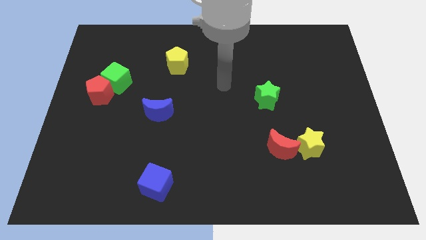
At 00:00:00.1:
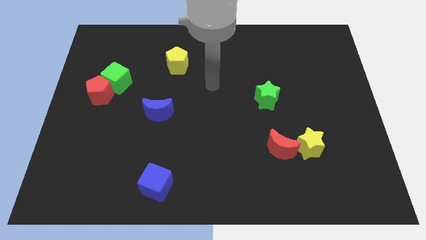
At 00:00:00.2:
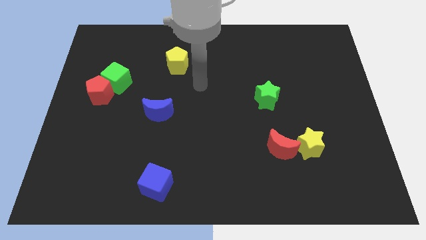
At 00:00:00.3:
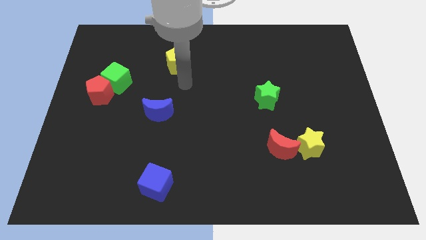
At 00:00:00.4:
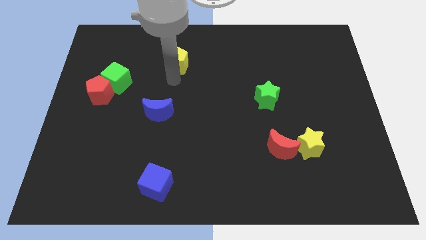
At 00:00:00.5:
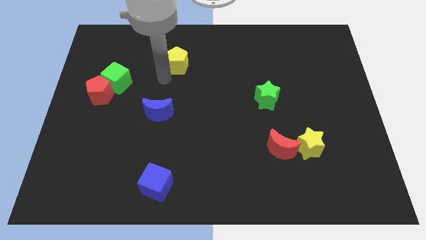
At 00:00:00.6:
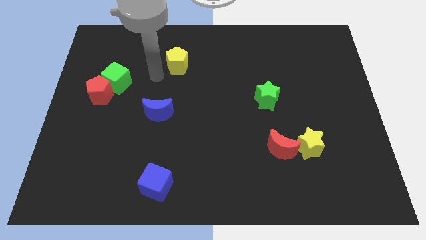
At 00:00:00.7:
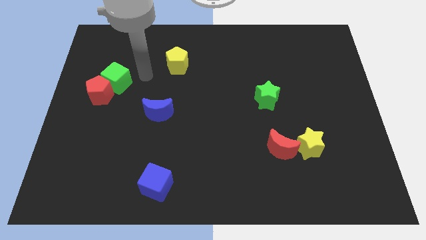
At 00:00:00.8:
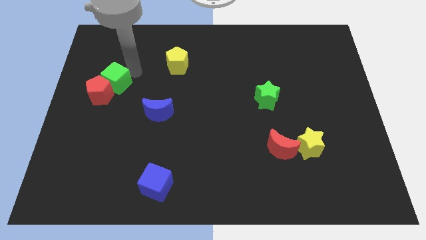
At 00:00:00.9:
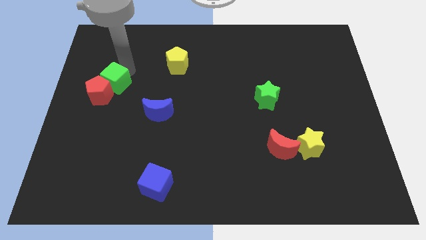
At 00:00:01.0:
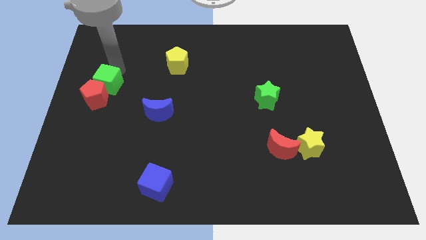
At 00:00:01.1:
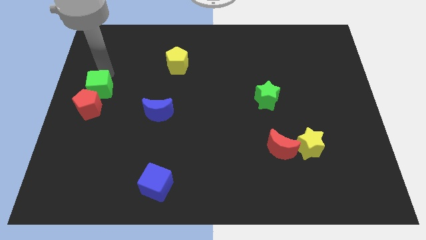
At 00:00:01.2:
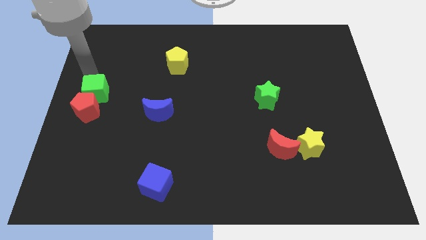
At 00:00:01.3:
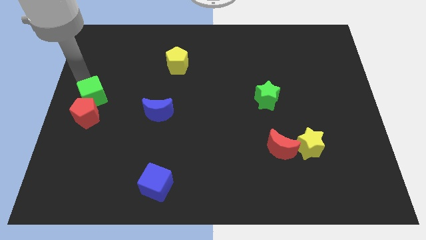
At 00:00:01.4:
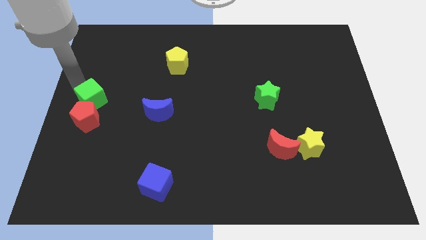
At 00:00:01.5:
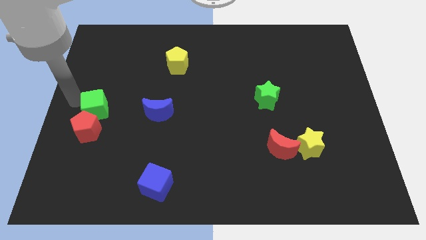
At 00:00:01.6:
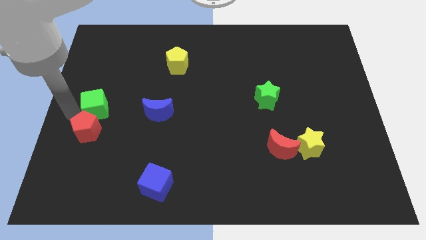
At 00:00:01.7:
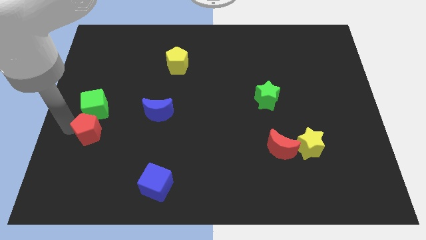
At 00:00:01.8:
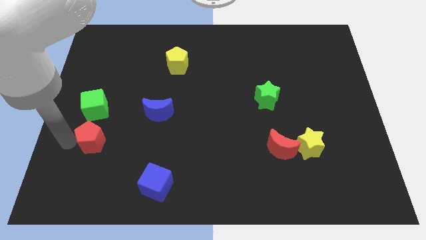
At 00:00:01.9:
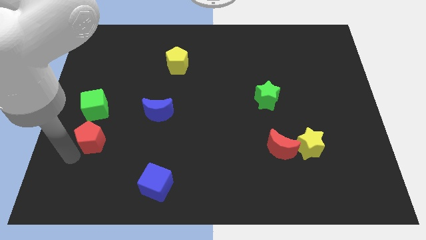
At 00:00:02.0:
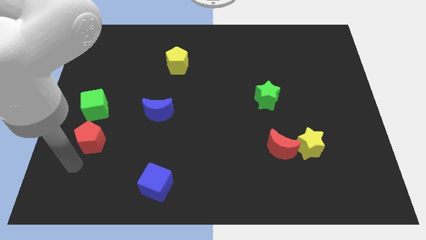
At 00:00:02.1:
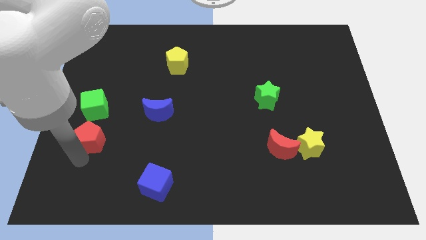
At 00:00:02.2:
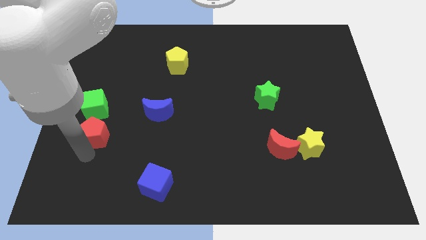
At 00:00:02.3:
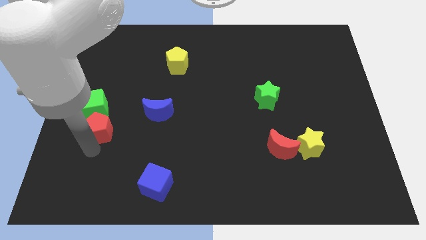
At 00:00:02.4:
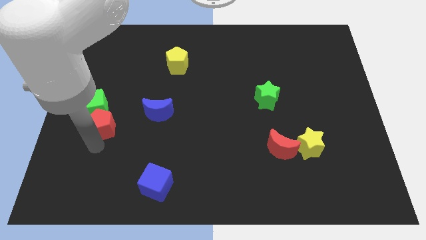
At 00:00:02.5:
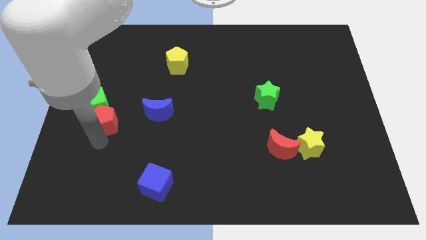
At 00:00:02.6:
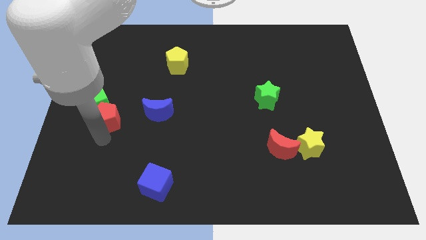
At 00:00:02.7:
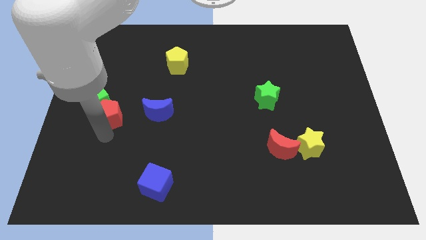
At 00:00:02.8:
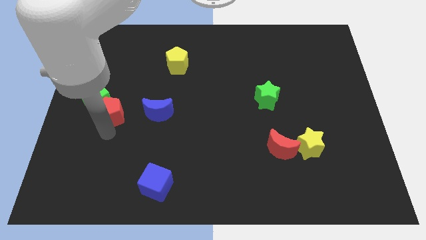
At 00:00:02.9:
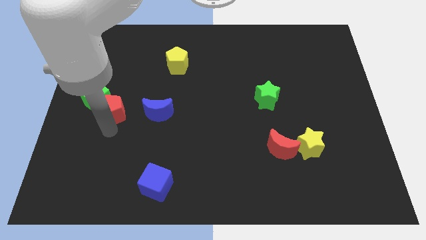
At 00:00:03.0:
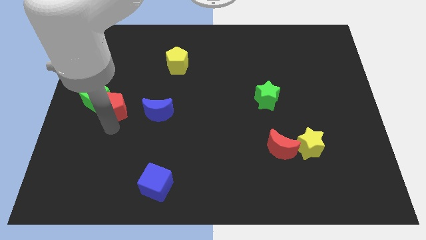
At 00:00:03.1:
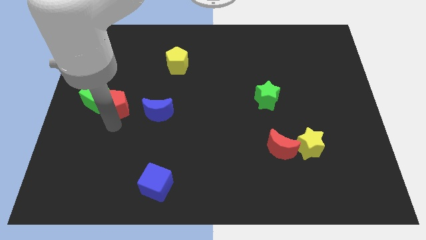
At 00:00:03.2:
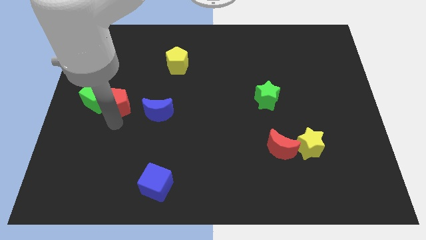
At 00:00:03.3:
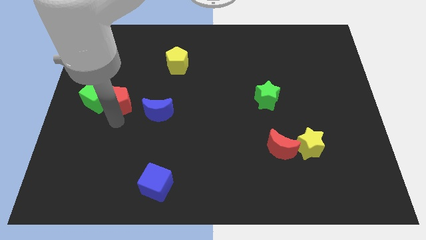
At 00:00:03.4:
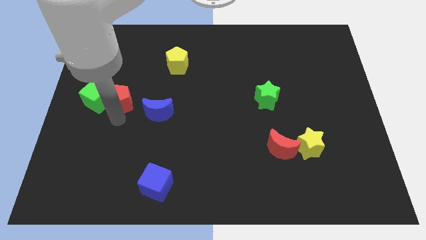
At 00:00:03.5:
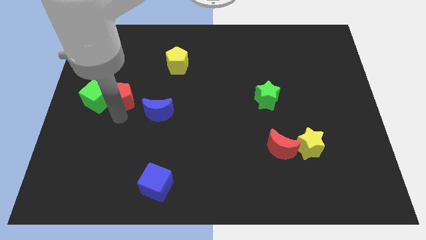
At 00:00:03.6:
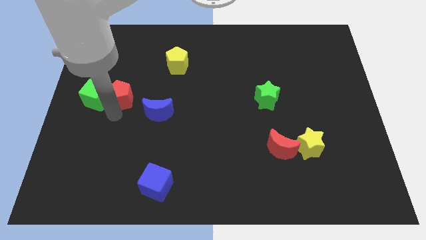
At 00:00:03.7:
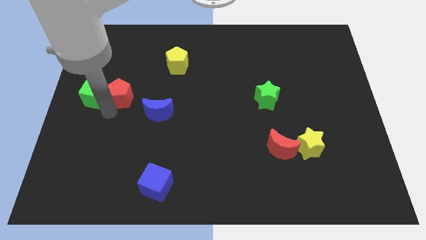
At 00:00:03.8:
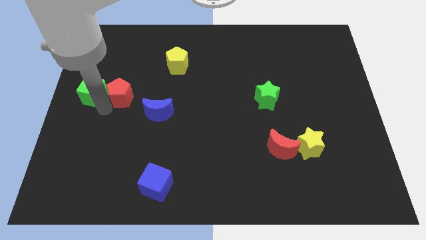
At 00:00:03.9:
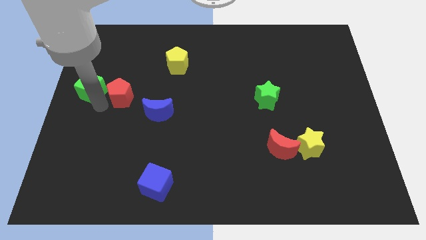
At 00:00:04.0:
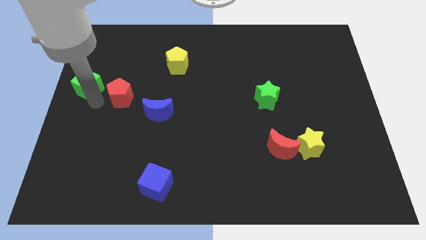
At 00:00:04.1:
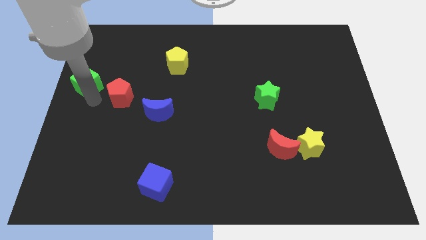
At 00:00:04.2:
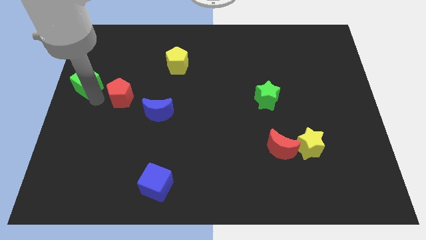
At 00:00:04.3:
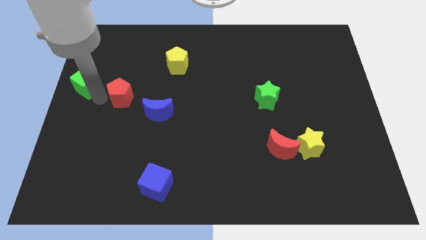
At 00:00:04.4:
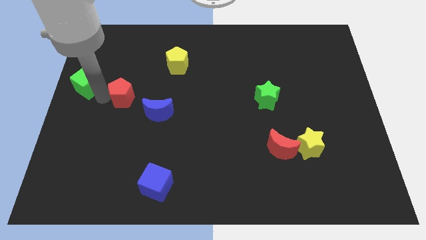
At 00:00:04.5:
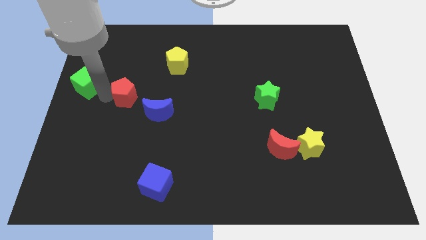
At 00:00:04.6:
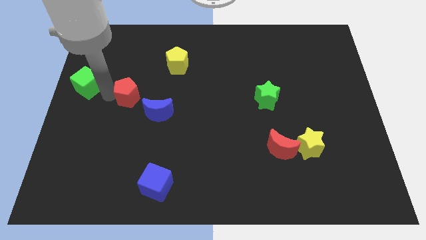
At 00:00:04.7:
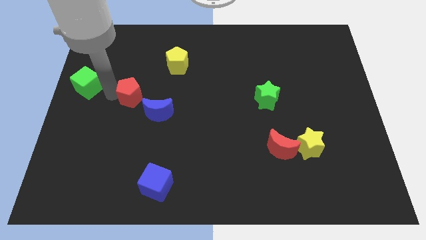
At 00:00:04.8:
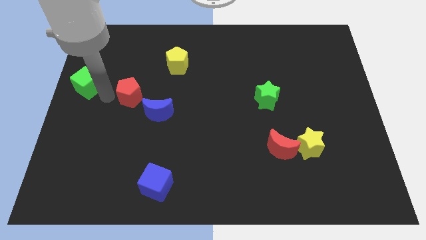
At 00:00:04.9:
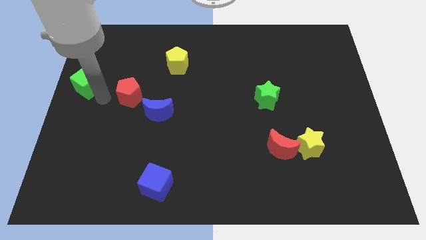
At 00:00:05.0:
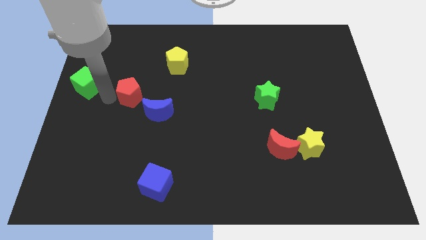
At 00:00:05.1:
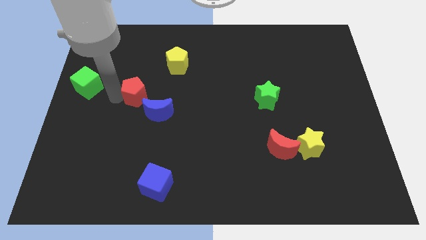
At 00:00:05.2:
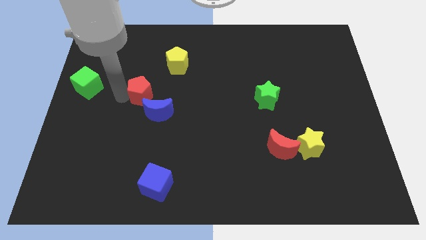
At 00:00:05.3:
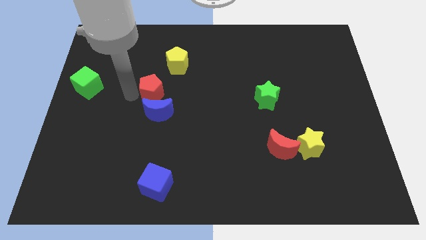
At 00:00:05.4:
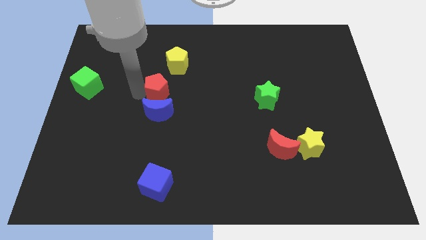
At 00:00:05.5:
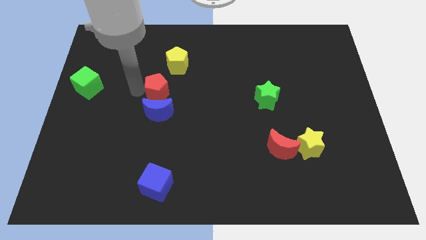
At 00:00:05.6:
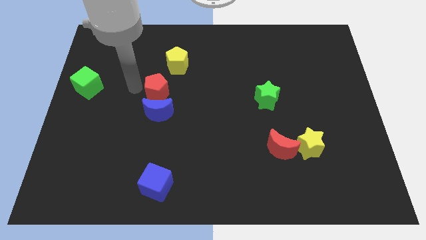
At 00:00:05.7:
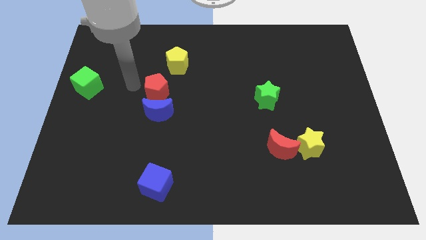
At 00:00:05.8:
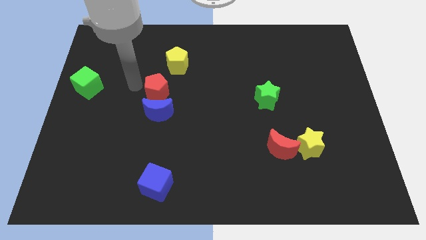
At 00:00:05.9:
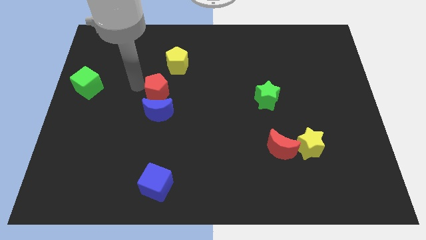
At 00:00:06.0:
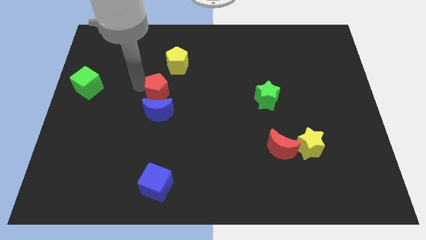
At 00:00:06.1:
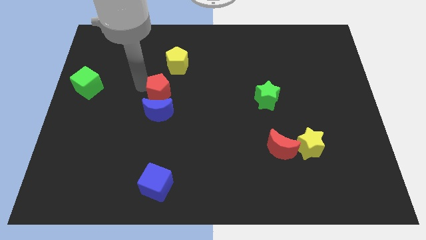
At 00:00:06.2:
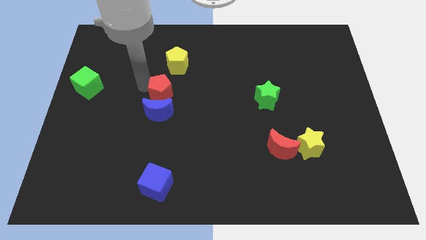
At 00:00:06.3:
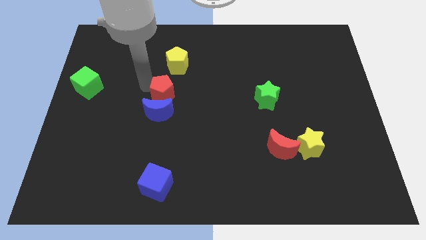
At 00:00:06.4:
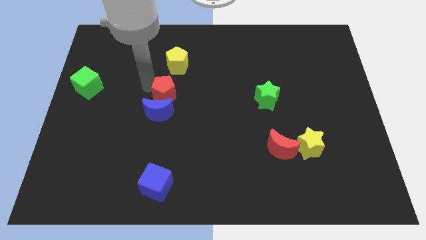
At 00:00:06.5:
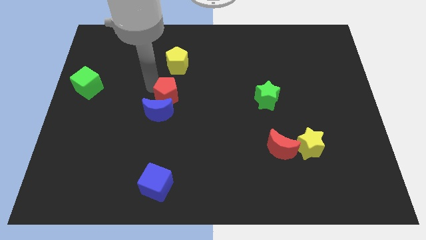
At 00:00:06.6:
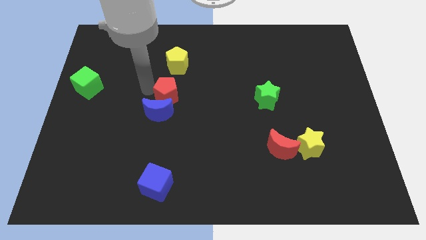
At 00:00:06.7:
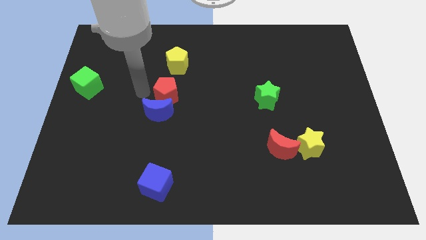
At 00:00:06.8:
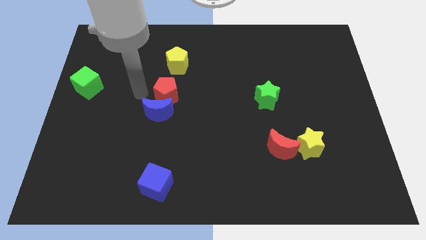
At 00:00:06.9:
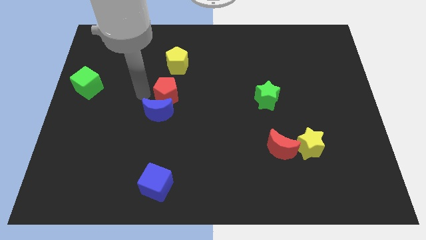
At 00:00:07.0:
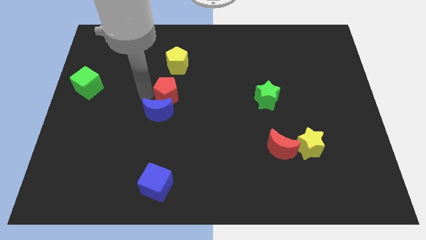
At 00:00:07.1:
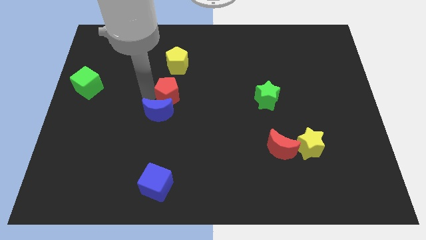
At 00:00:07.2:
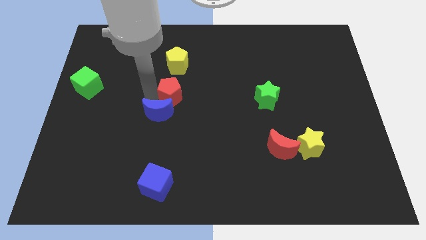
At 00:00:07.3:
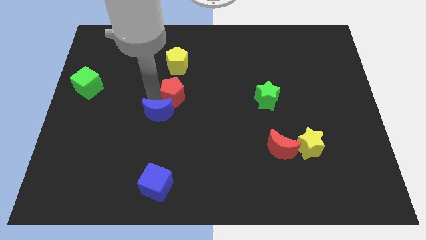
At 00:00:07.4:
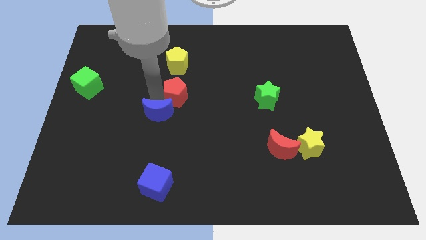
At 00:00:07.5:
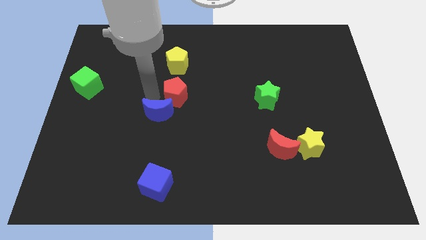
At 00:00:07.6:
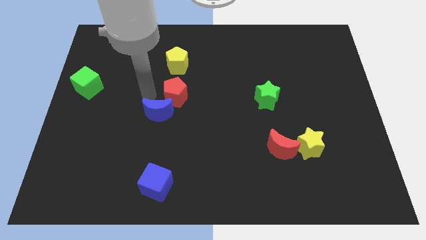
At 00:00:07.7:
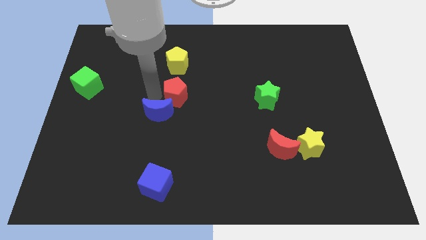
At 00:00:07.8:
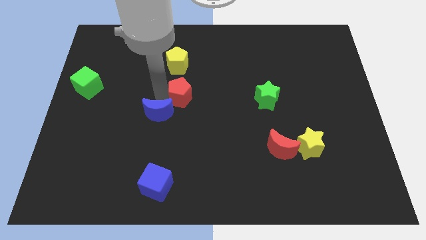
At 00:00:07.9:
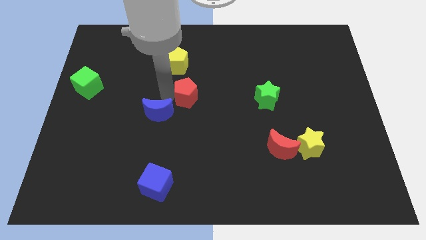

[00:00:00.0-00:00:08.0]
slide the red pentagon to the right
